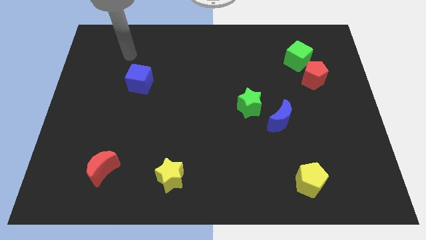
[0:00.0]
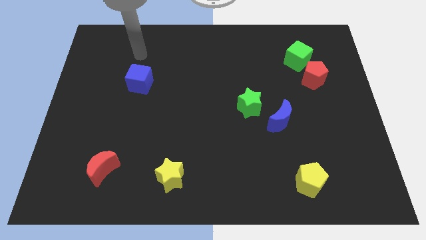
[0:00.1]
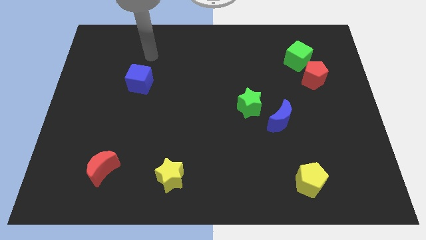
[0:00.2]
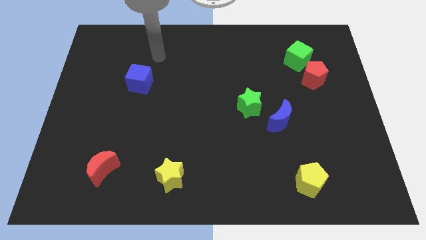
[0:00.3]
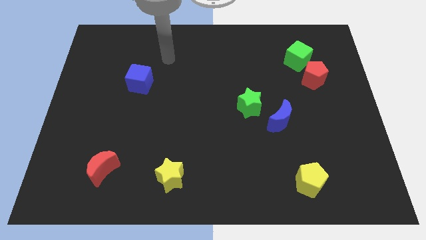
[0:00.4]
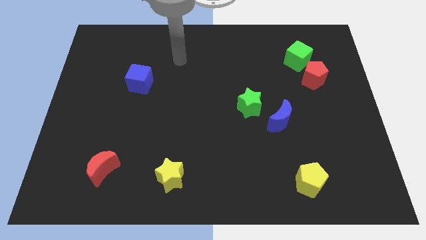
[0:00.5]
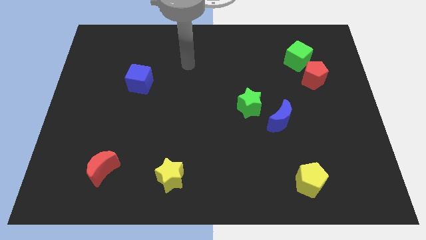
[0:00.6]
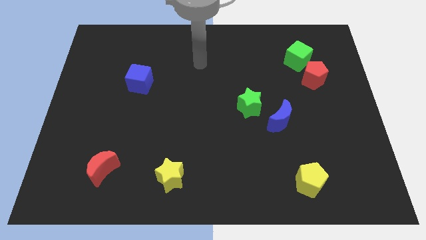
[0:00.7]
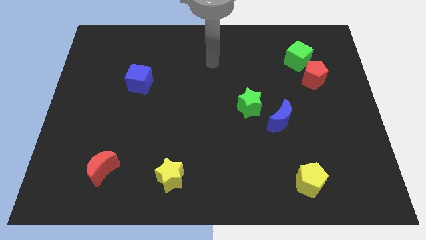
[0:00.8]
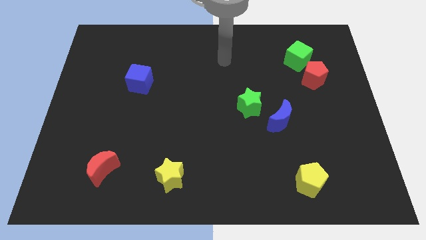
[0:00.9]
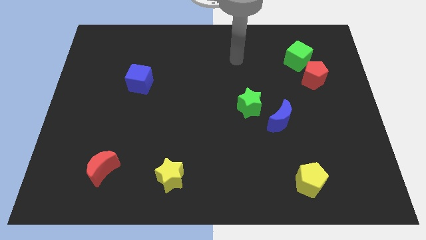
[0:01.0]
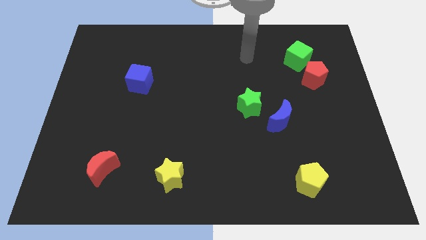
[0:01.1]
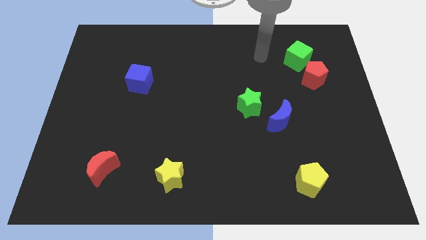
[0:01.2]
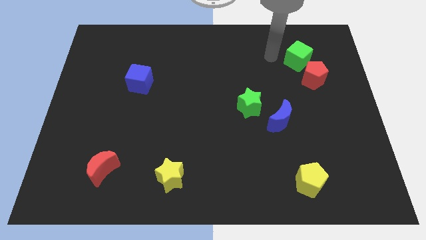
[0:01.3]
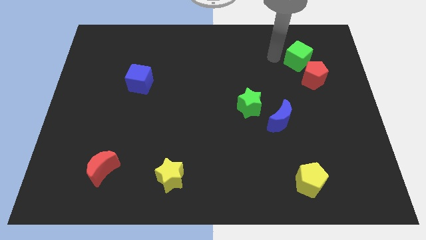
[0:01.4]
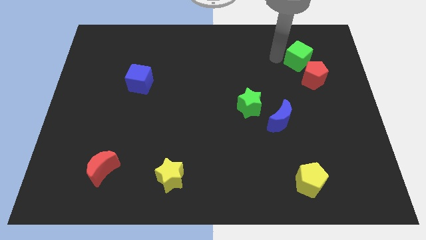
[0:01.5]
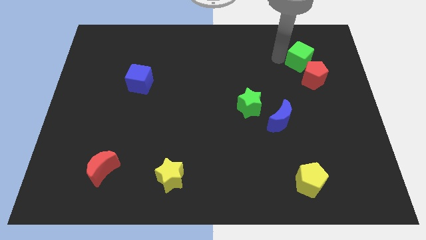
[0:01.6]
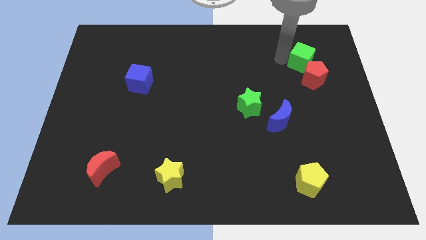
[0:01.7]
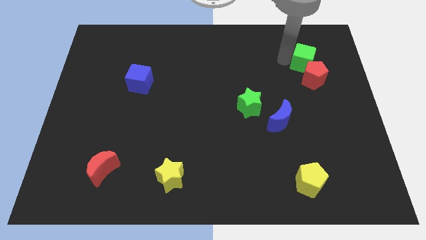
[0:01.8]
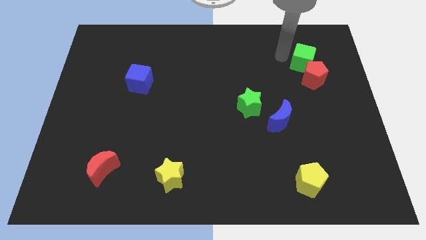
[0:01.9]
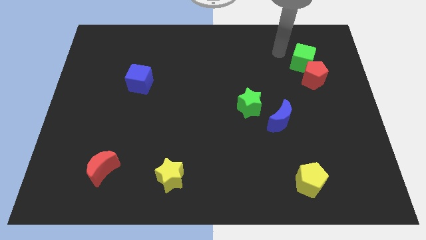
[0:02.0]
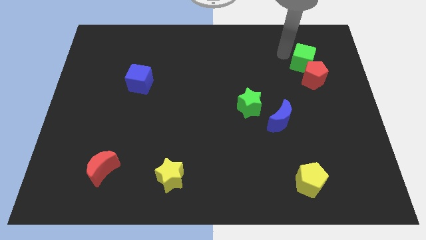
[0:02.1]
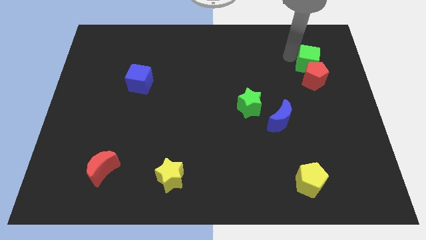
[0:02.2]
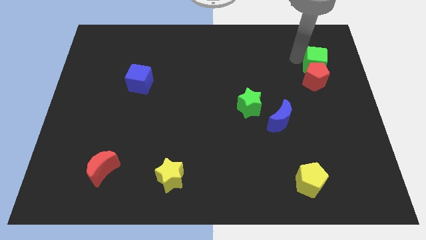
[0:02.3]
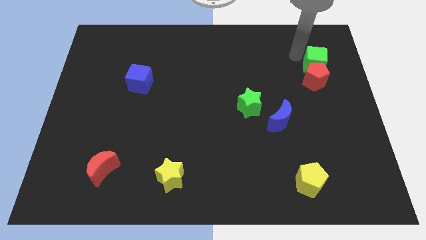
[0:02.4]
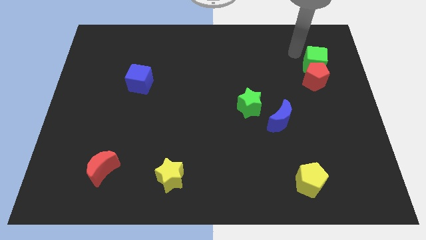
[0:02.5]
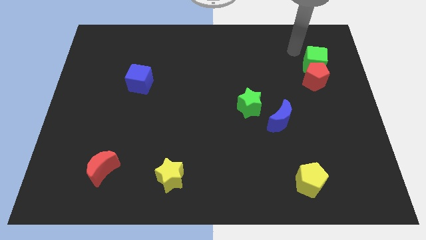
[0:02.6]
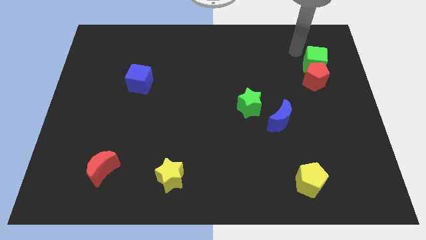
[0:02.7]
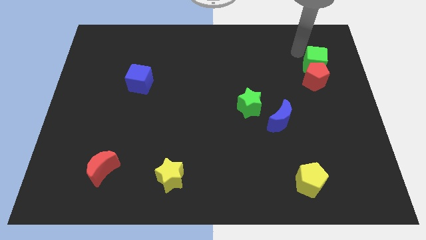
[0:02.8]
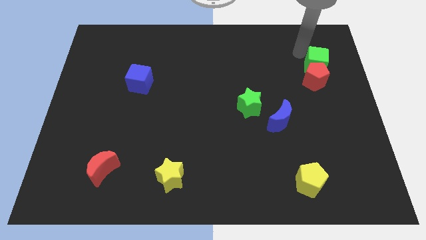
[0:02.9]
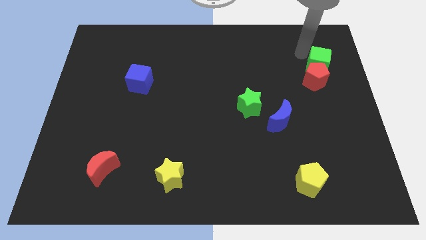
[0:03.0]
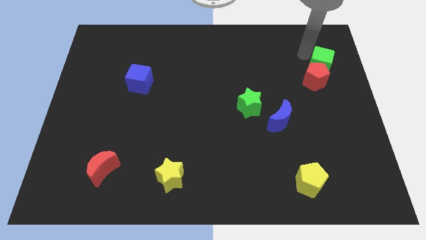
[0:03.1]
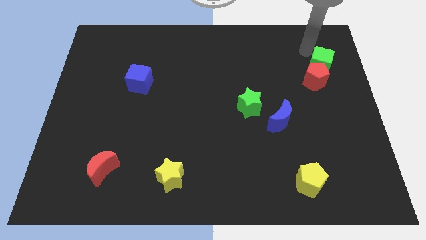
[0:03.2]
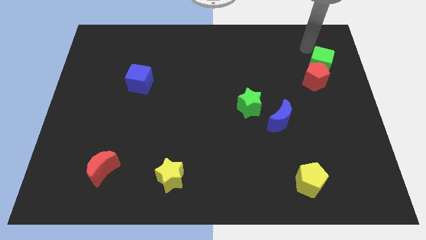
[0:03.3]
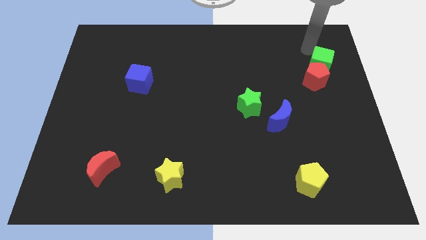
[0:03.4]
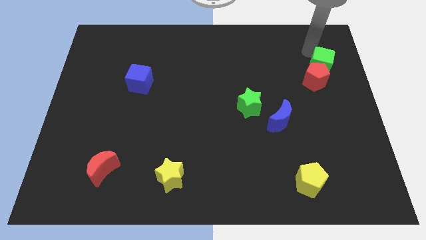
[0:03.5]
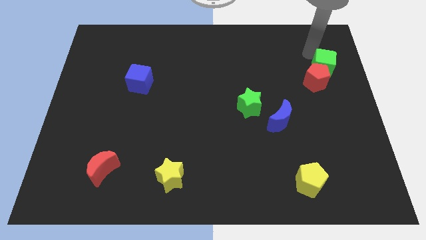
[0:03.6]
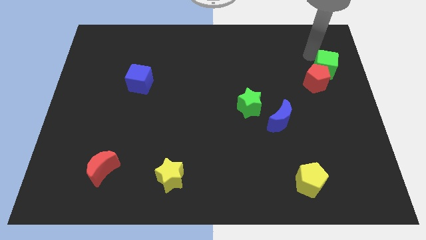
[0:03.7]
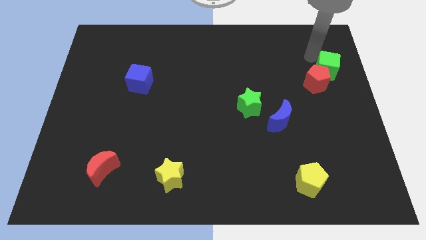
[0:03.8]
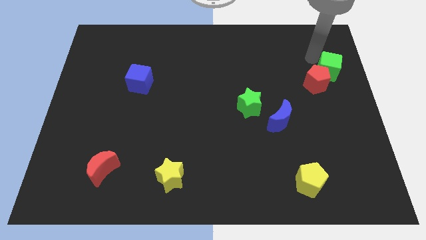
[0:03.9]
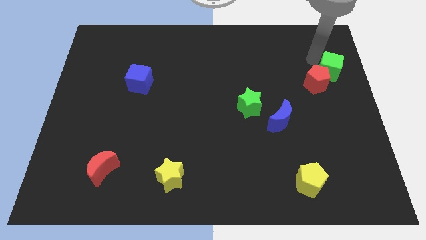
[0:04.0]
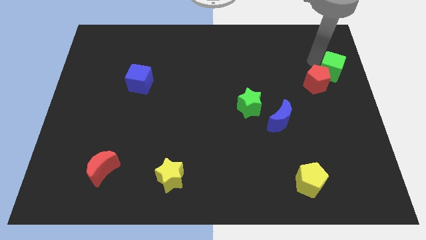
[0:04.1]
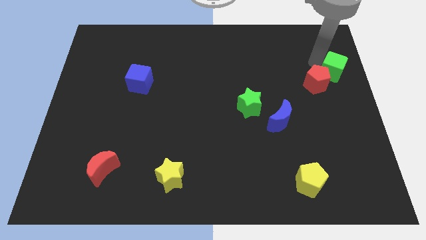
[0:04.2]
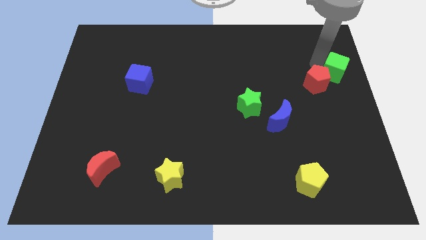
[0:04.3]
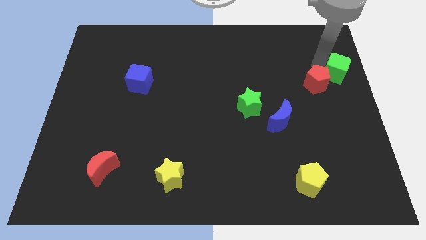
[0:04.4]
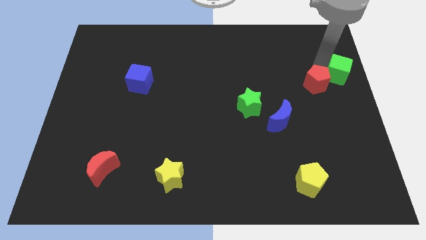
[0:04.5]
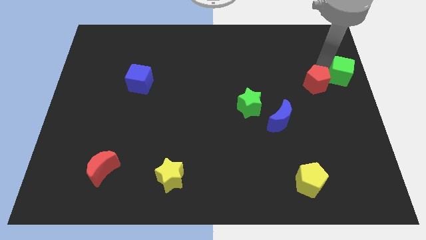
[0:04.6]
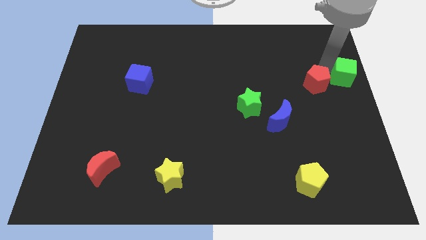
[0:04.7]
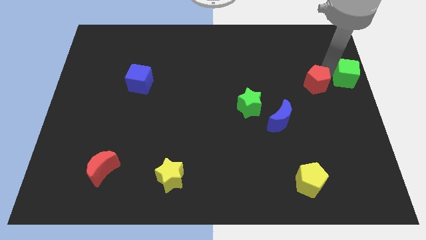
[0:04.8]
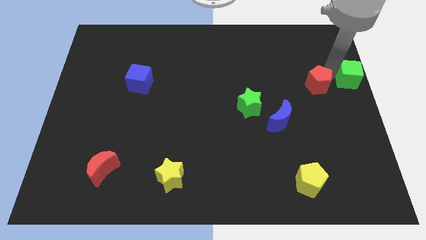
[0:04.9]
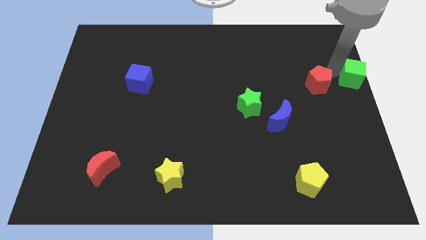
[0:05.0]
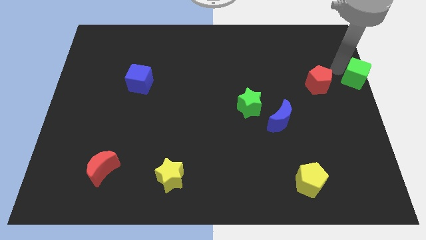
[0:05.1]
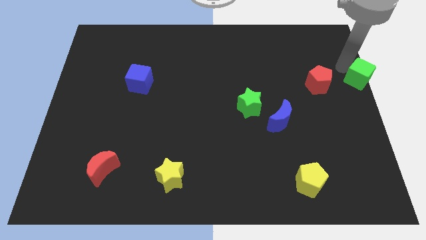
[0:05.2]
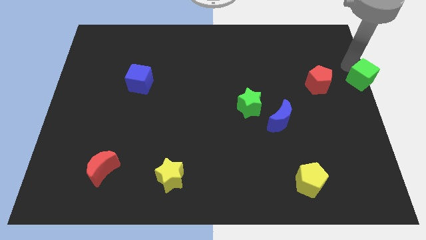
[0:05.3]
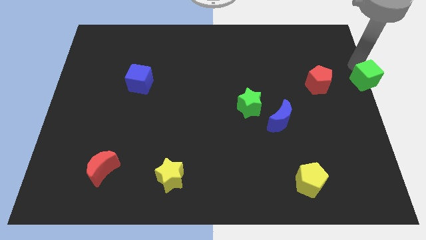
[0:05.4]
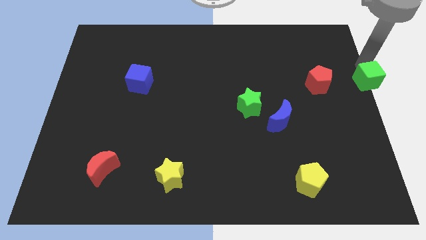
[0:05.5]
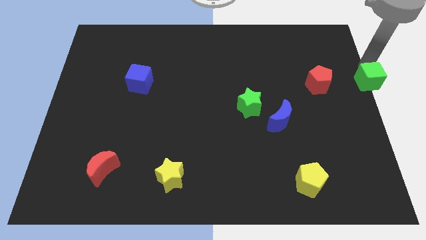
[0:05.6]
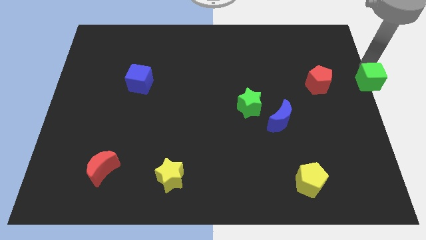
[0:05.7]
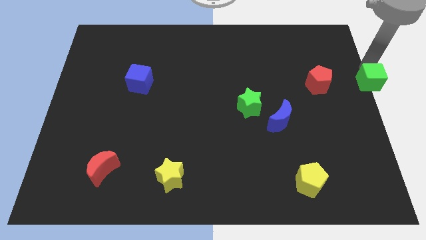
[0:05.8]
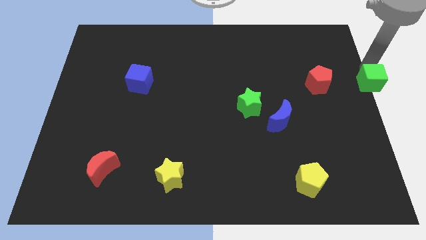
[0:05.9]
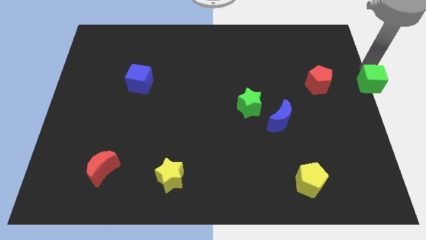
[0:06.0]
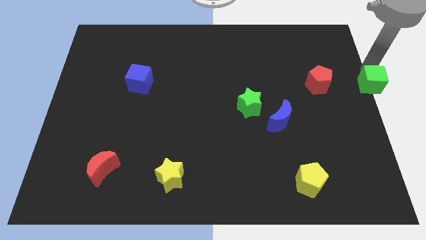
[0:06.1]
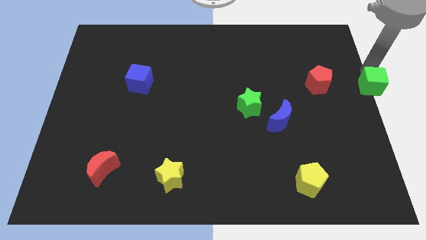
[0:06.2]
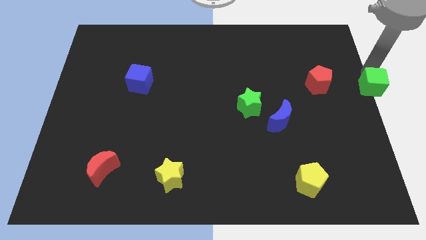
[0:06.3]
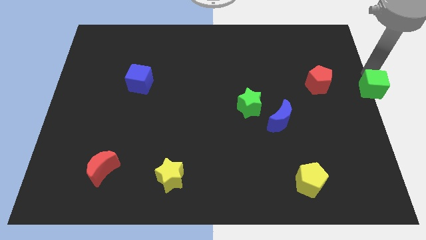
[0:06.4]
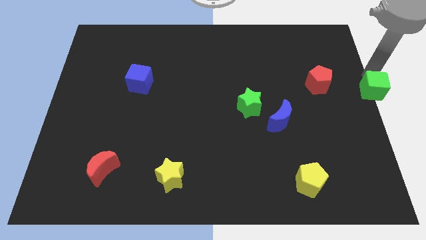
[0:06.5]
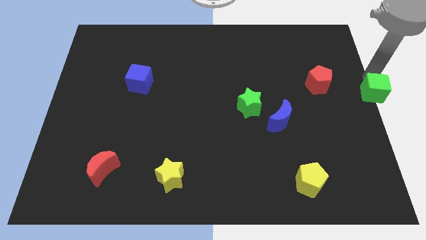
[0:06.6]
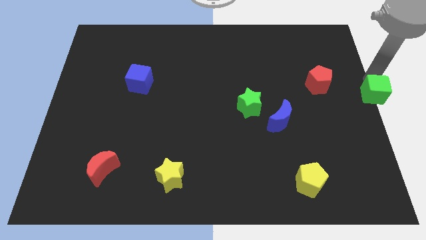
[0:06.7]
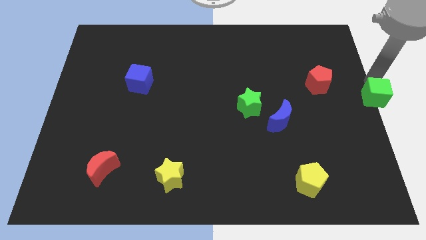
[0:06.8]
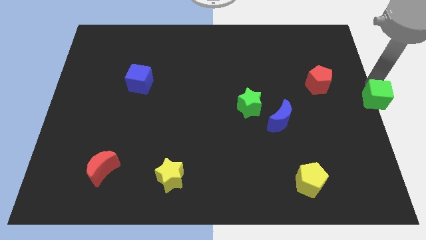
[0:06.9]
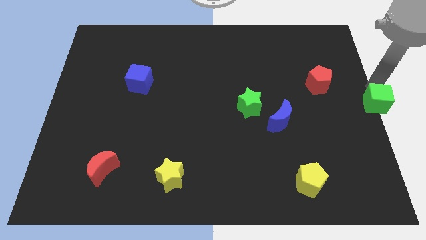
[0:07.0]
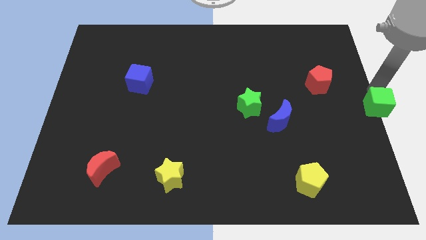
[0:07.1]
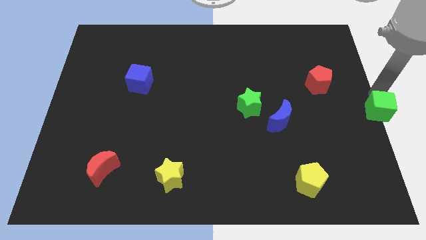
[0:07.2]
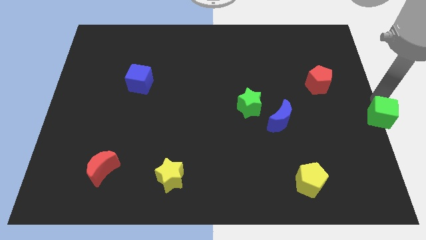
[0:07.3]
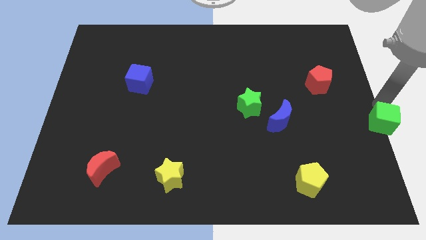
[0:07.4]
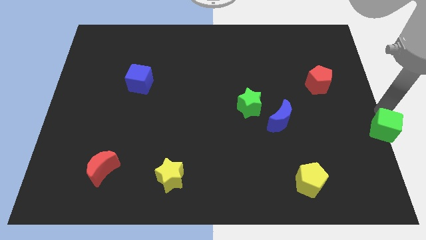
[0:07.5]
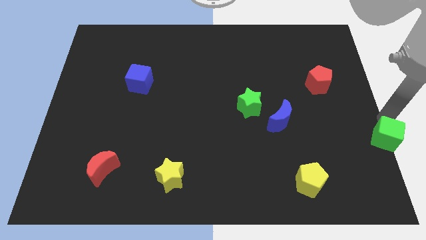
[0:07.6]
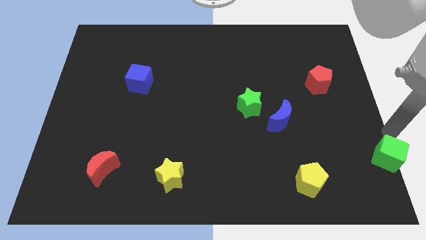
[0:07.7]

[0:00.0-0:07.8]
slide the green cube to the bottom right of the board

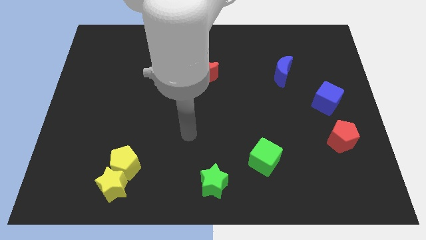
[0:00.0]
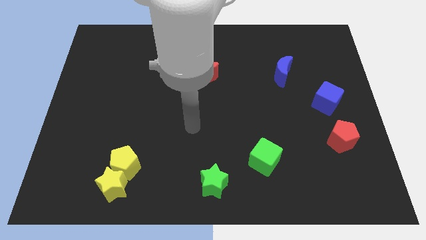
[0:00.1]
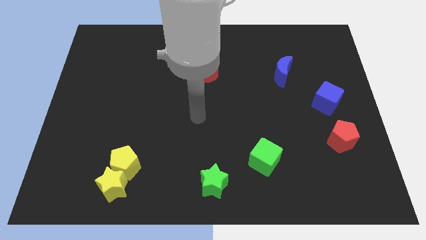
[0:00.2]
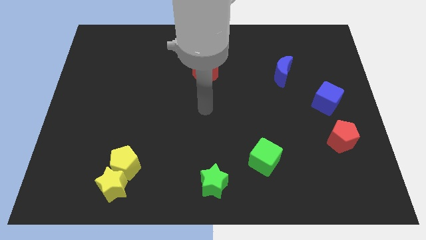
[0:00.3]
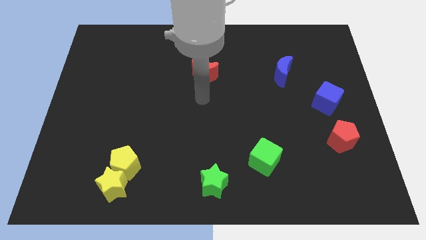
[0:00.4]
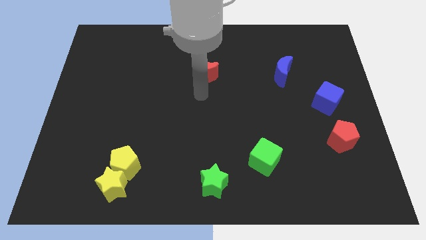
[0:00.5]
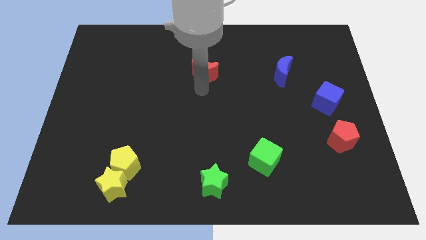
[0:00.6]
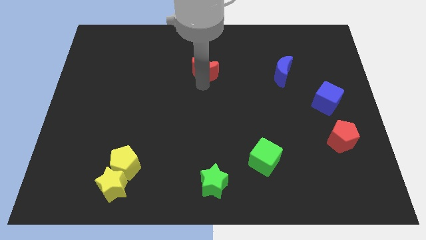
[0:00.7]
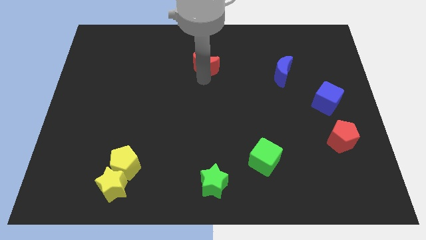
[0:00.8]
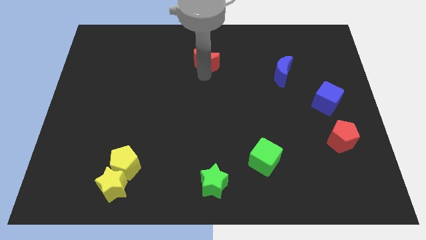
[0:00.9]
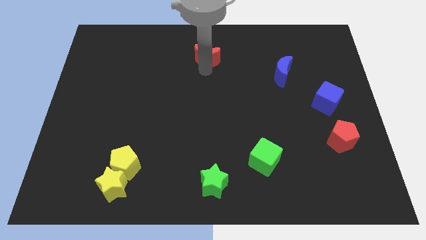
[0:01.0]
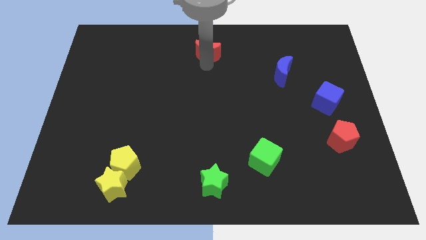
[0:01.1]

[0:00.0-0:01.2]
push the red moon to the top side
